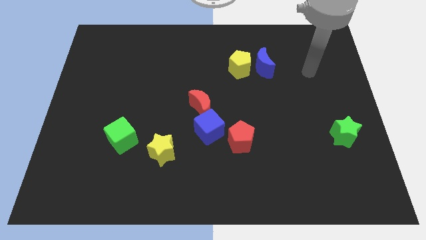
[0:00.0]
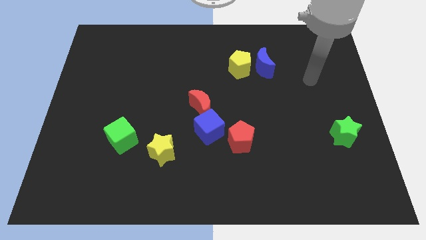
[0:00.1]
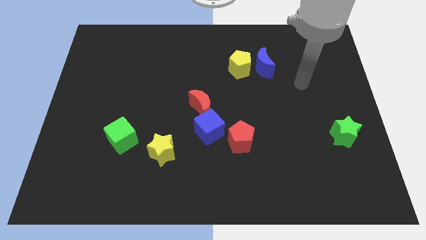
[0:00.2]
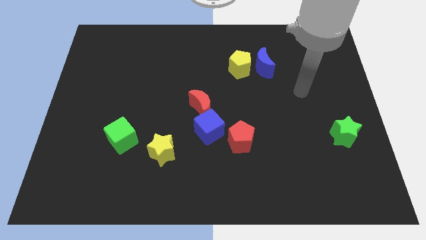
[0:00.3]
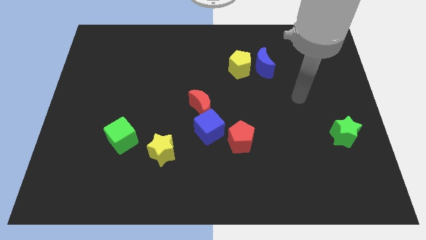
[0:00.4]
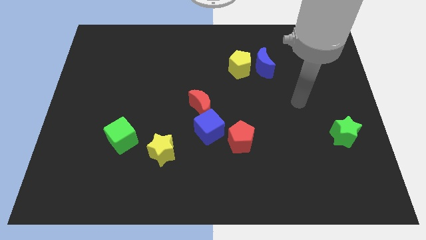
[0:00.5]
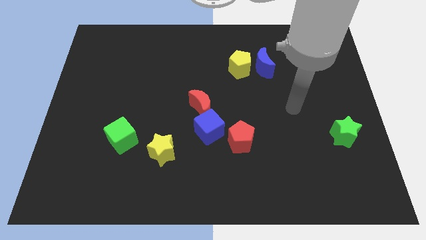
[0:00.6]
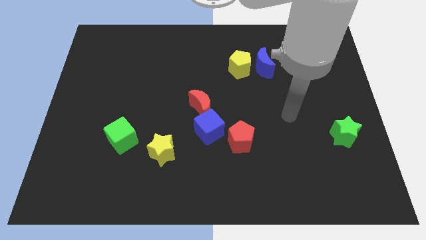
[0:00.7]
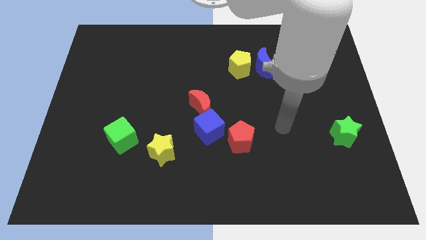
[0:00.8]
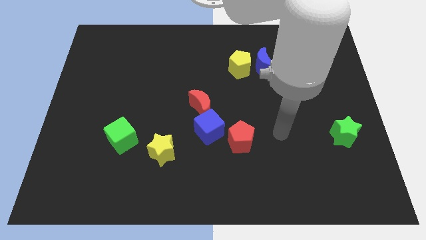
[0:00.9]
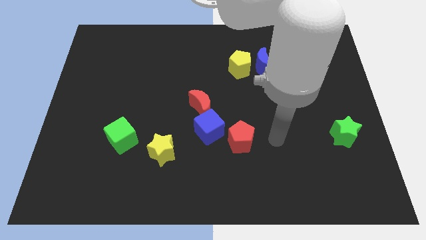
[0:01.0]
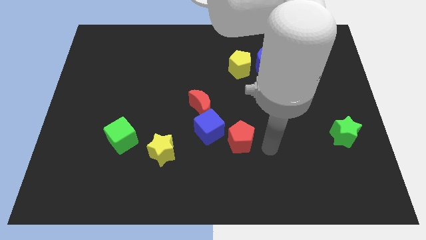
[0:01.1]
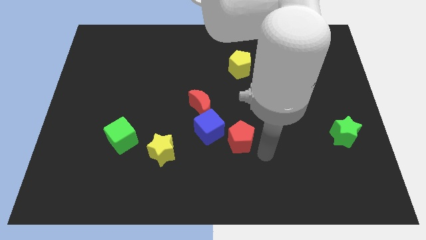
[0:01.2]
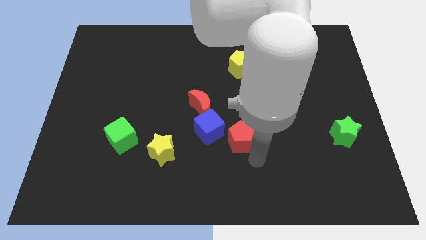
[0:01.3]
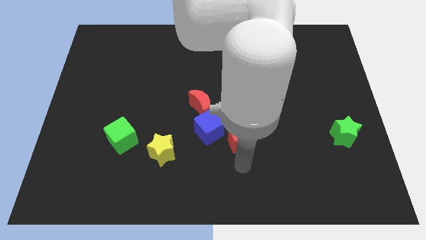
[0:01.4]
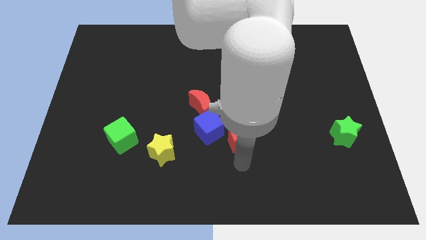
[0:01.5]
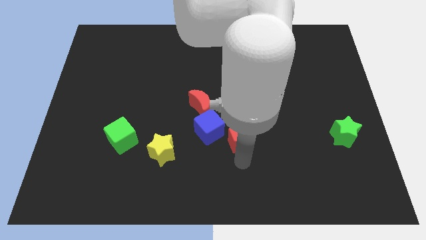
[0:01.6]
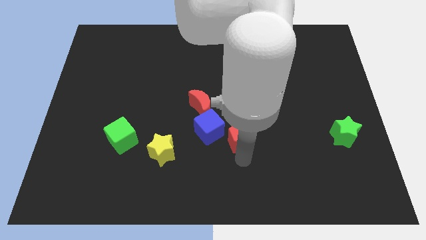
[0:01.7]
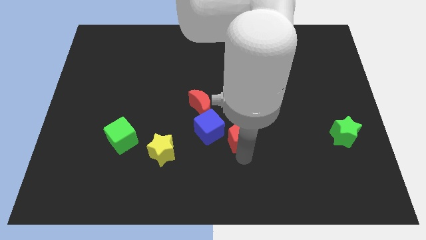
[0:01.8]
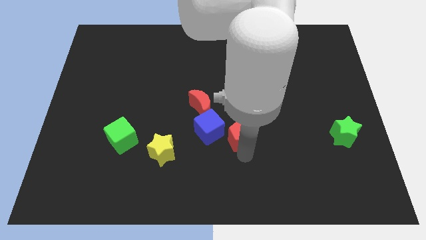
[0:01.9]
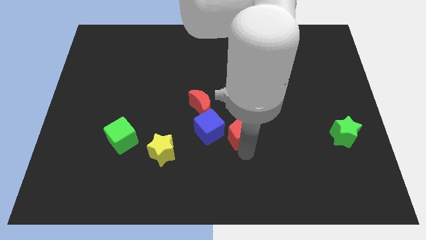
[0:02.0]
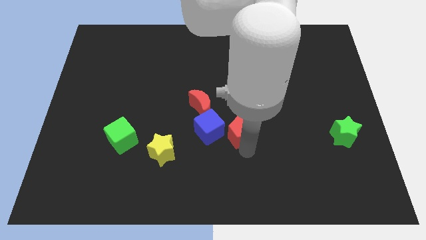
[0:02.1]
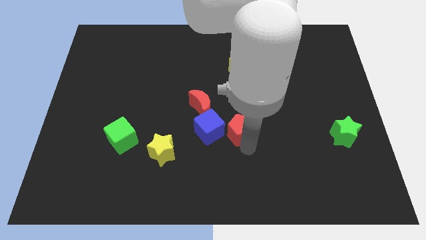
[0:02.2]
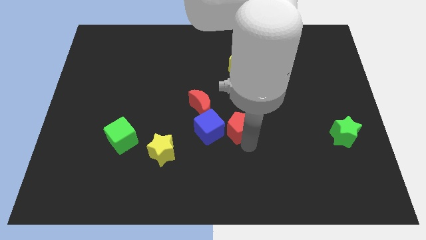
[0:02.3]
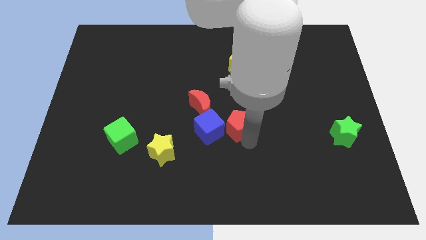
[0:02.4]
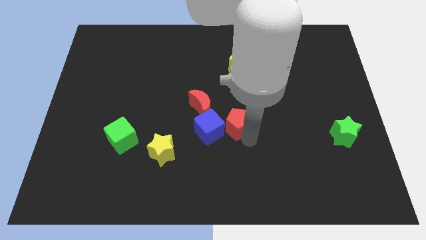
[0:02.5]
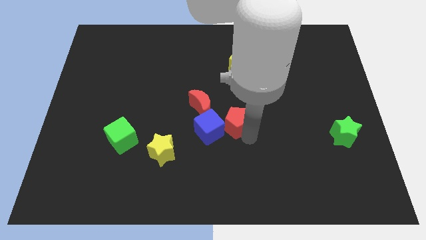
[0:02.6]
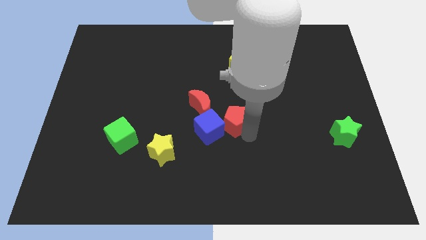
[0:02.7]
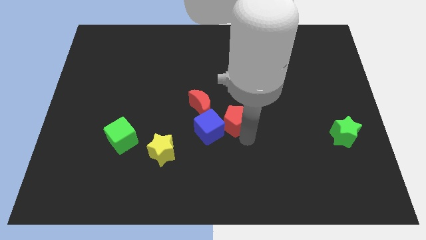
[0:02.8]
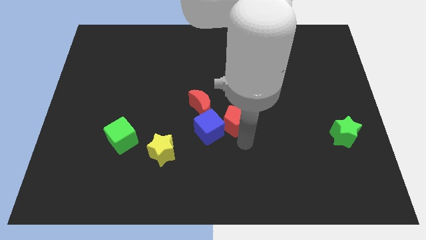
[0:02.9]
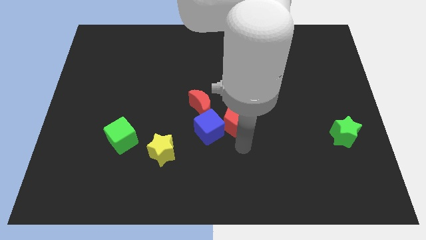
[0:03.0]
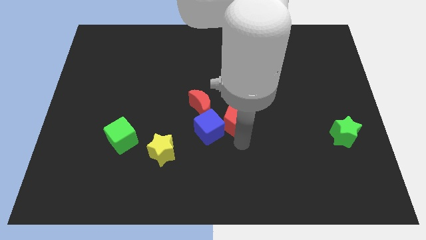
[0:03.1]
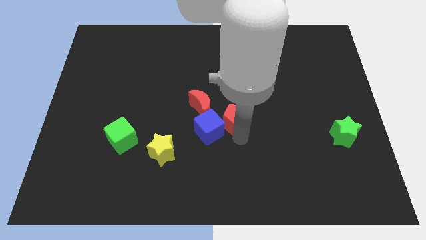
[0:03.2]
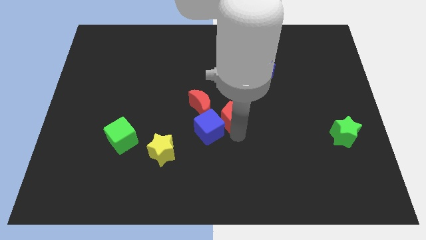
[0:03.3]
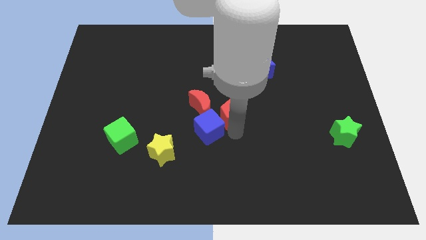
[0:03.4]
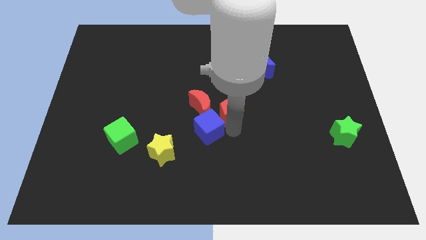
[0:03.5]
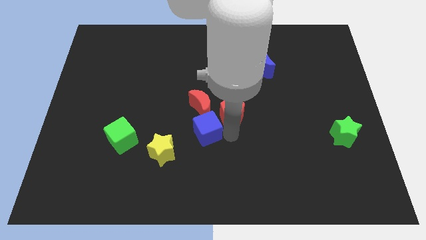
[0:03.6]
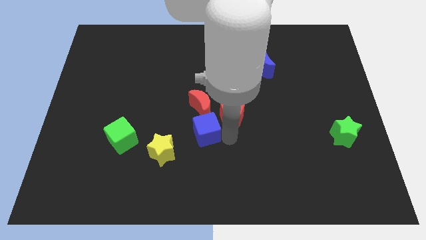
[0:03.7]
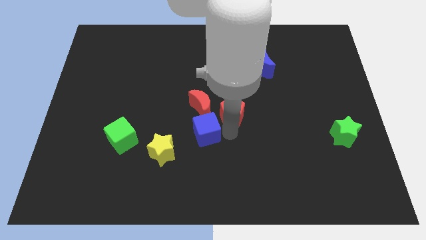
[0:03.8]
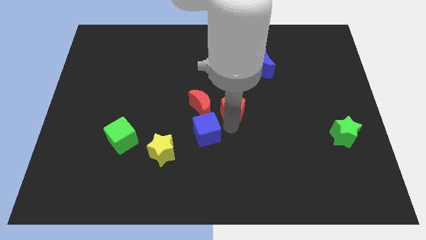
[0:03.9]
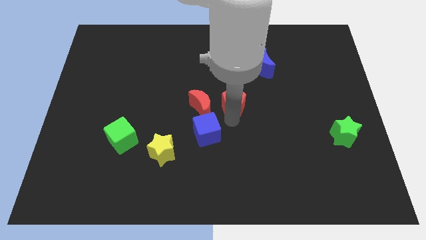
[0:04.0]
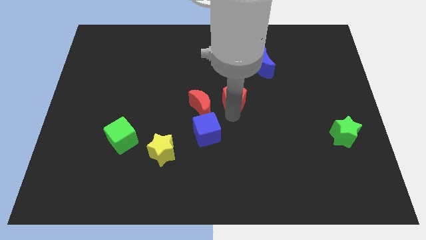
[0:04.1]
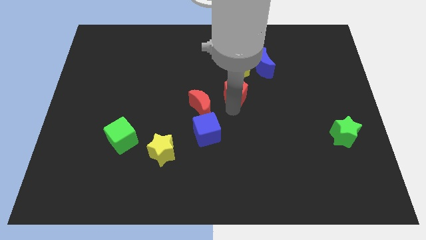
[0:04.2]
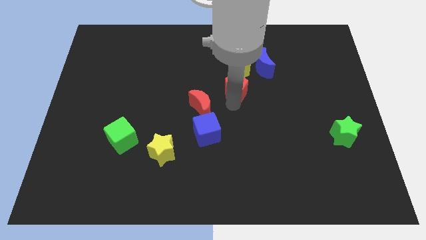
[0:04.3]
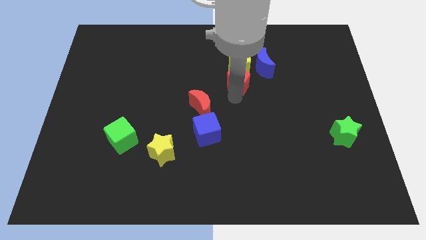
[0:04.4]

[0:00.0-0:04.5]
push the red pentagon towards the yellow pentagon

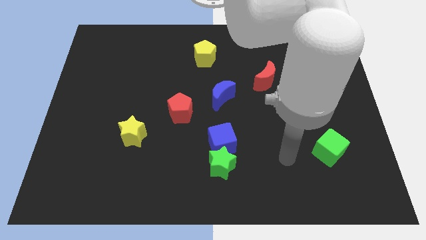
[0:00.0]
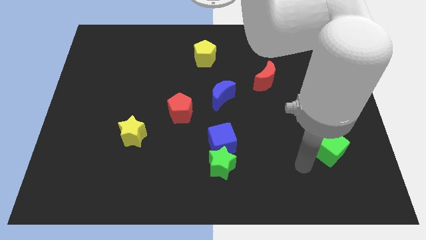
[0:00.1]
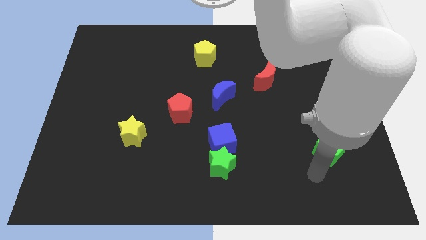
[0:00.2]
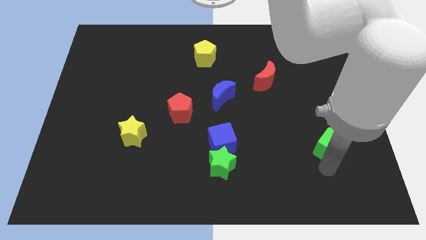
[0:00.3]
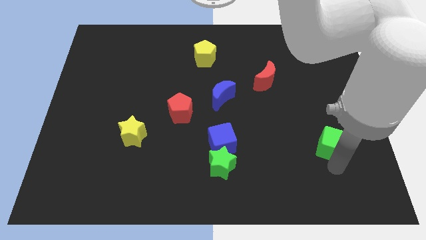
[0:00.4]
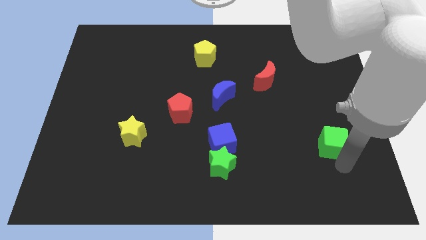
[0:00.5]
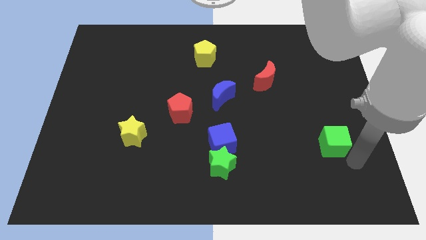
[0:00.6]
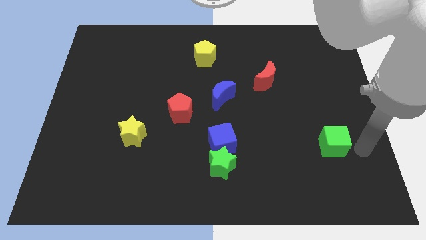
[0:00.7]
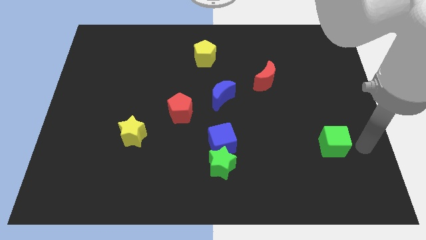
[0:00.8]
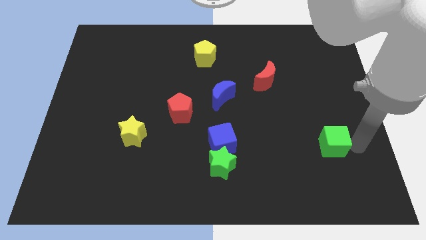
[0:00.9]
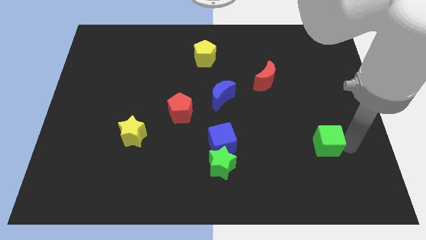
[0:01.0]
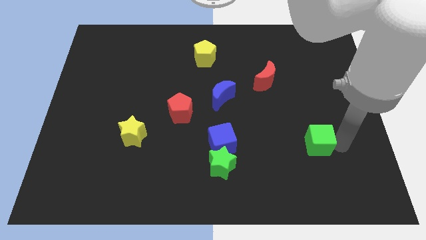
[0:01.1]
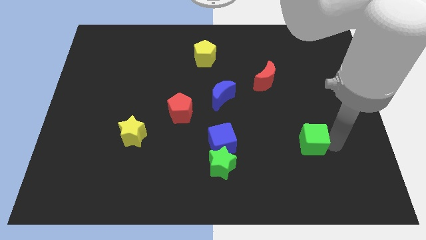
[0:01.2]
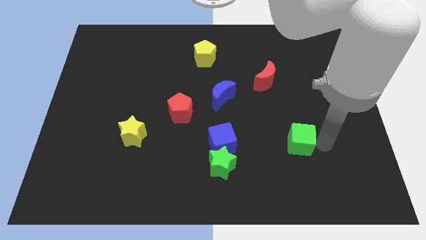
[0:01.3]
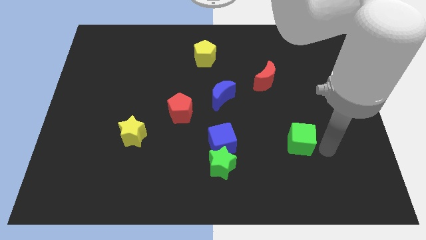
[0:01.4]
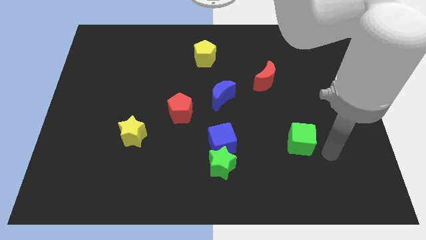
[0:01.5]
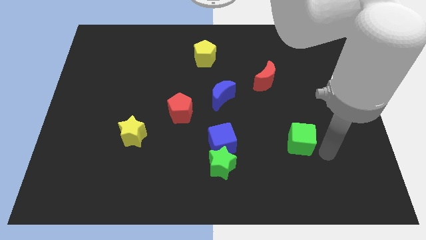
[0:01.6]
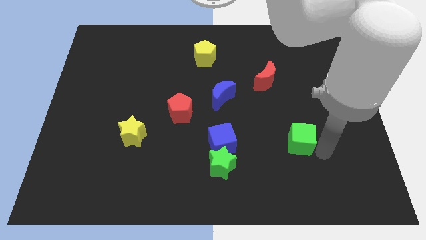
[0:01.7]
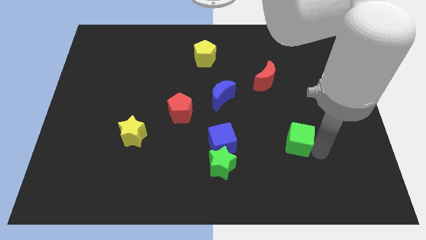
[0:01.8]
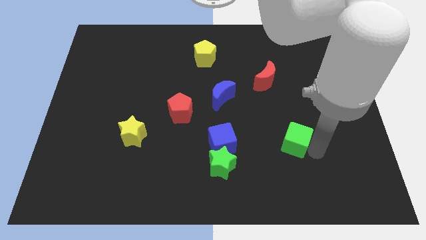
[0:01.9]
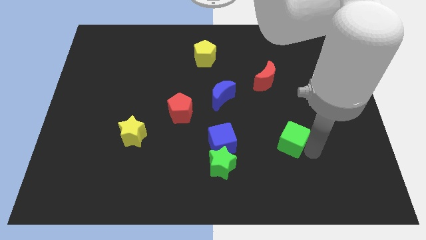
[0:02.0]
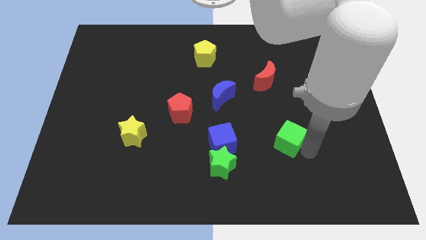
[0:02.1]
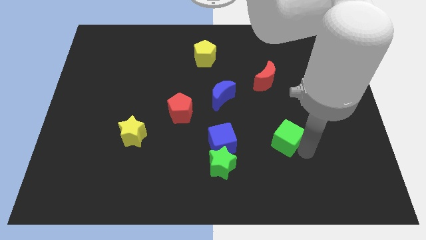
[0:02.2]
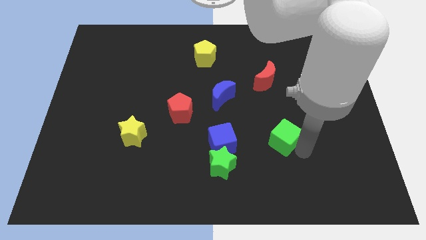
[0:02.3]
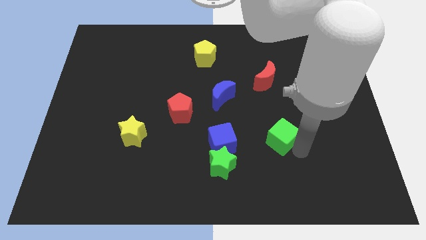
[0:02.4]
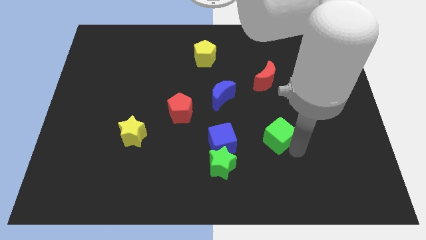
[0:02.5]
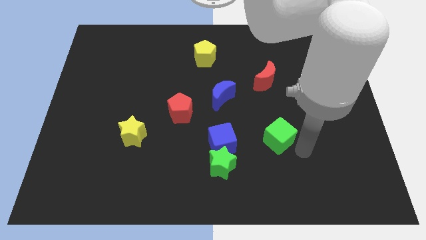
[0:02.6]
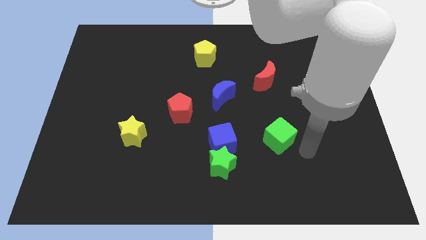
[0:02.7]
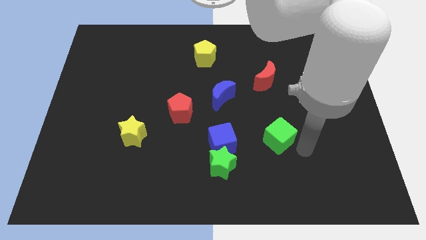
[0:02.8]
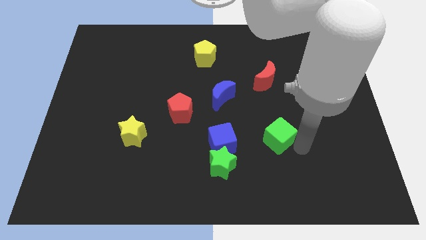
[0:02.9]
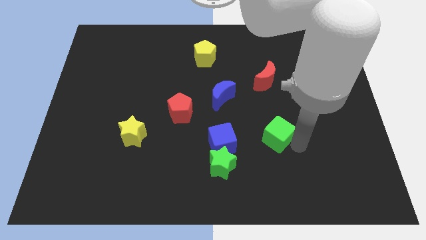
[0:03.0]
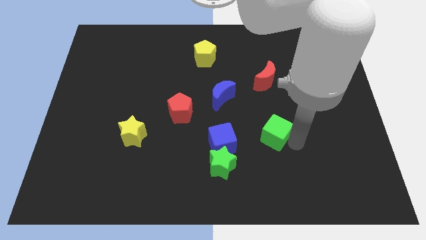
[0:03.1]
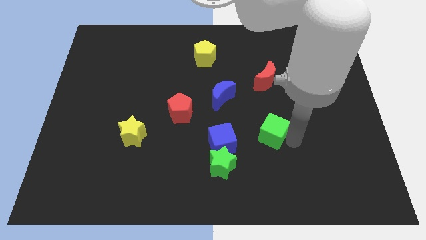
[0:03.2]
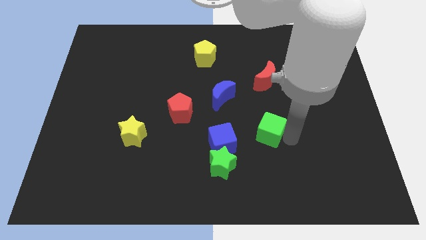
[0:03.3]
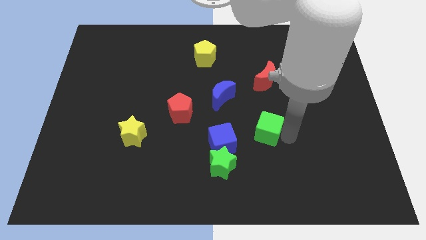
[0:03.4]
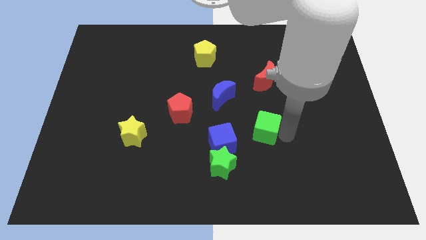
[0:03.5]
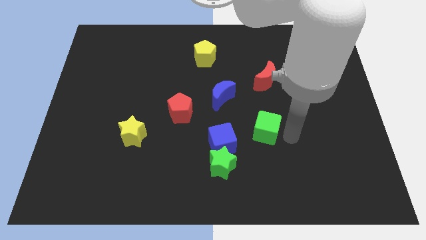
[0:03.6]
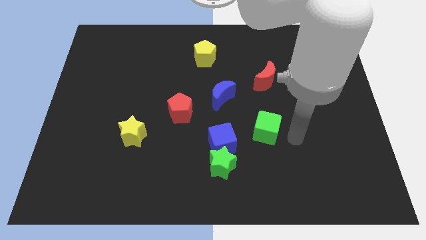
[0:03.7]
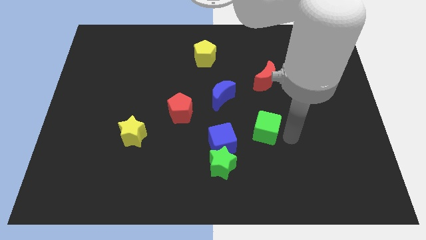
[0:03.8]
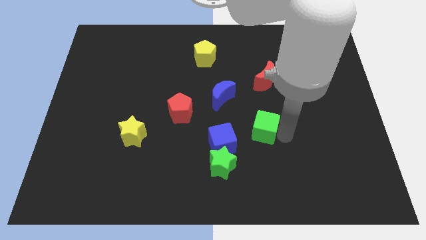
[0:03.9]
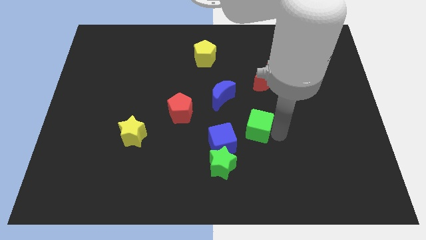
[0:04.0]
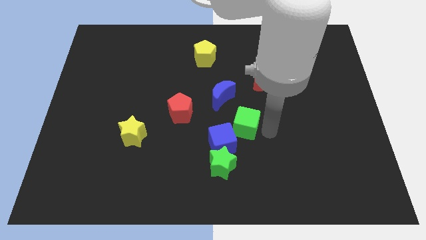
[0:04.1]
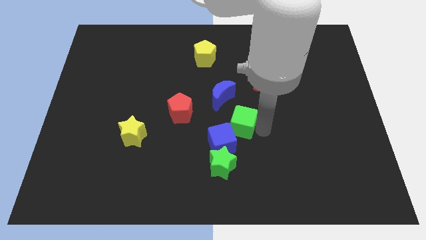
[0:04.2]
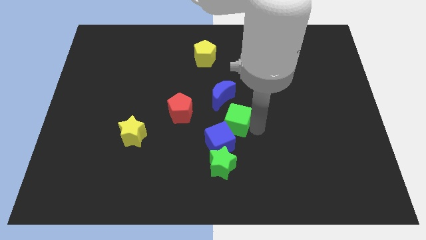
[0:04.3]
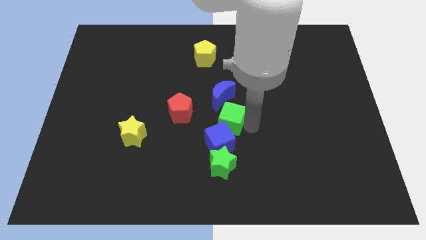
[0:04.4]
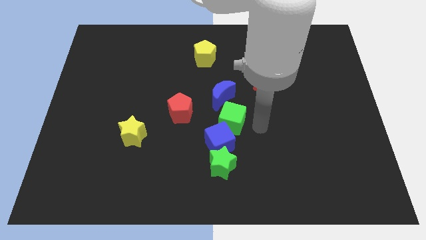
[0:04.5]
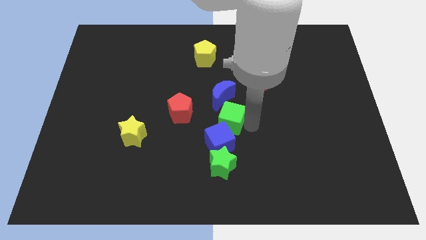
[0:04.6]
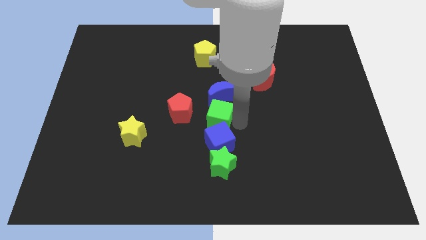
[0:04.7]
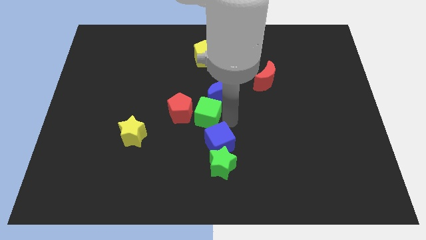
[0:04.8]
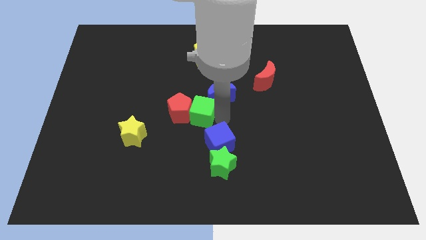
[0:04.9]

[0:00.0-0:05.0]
move the green cube next to the red pentagon
